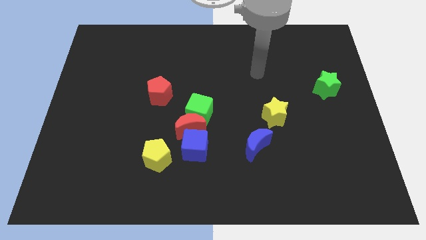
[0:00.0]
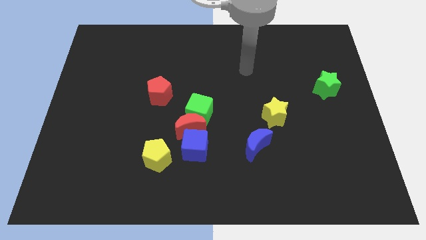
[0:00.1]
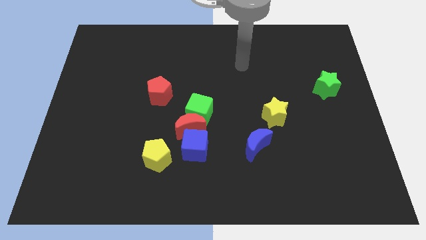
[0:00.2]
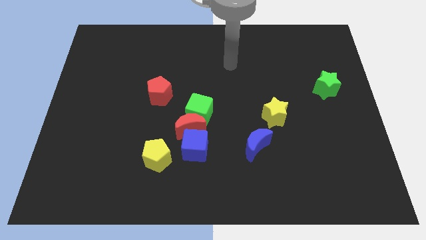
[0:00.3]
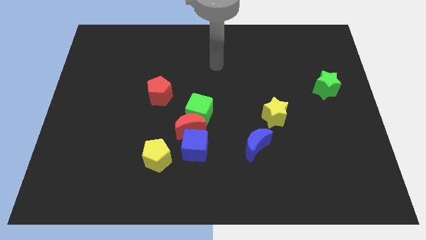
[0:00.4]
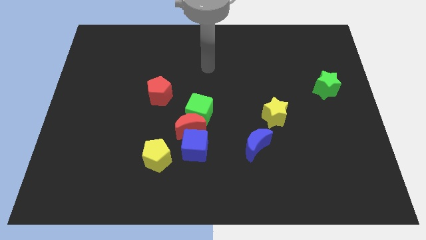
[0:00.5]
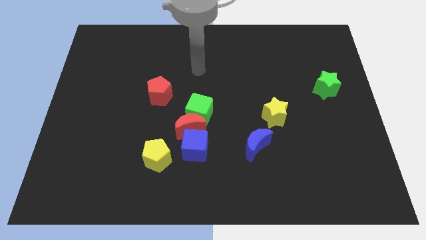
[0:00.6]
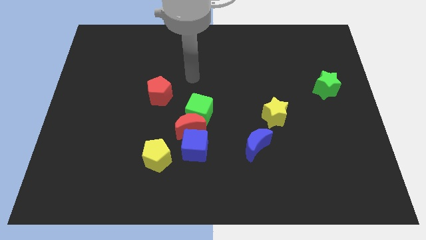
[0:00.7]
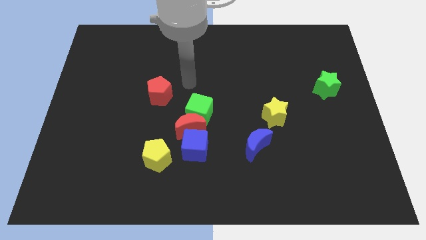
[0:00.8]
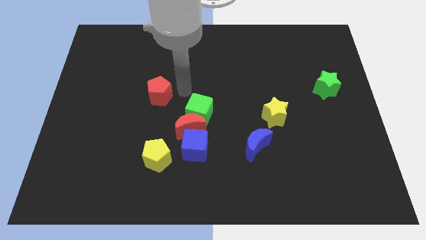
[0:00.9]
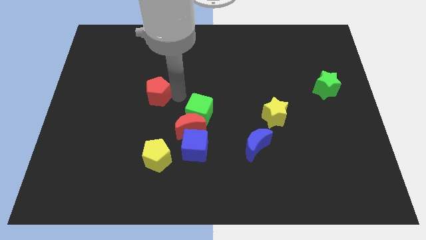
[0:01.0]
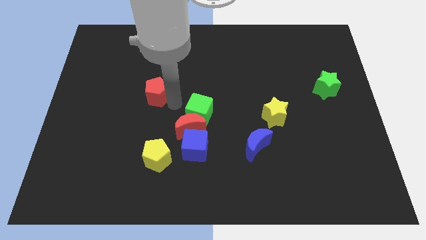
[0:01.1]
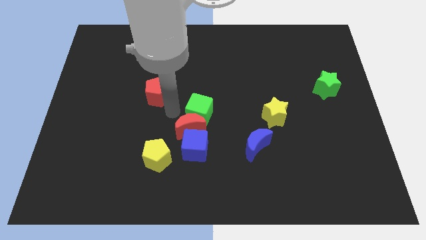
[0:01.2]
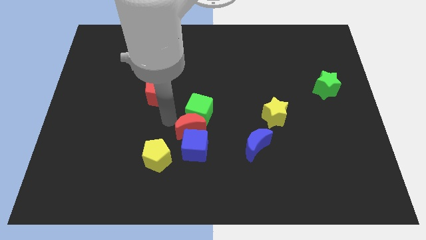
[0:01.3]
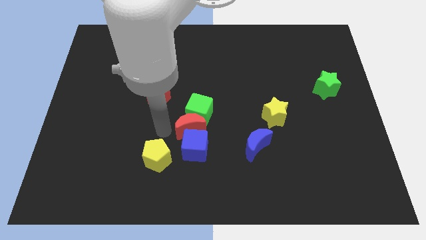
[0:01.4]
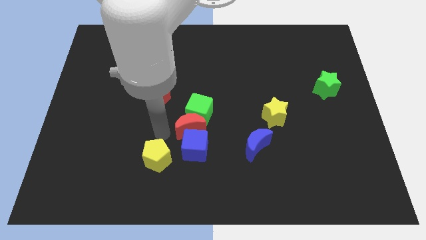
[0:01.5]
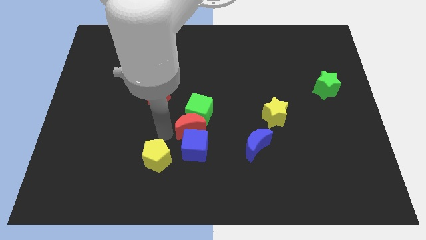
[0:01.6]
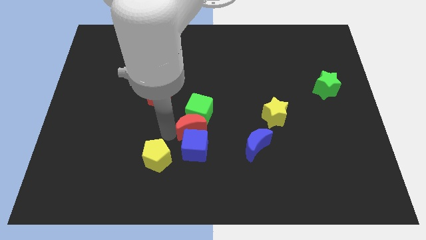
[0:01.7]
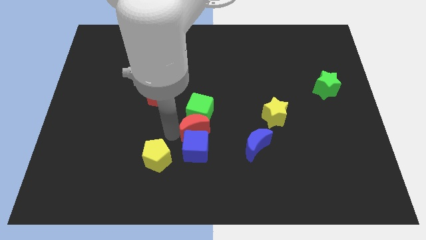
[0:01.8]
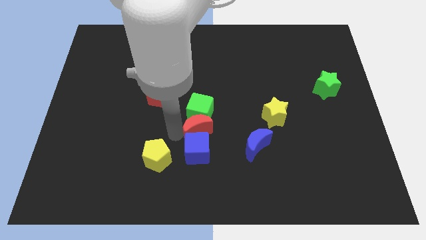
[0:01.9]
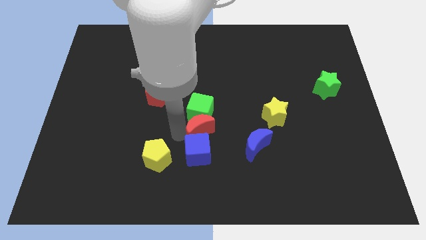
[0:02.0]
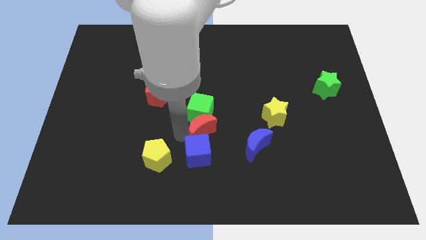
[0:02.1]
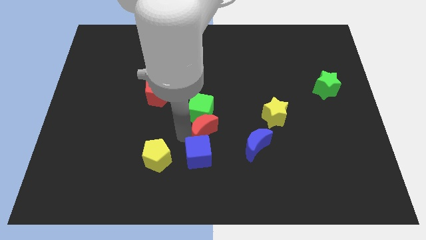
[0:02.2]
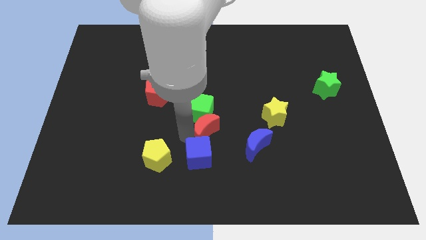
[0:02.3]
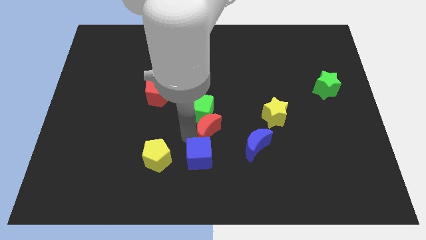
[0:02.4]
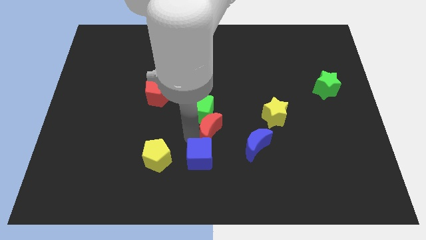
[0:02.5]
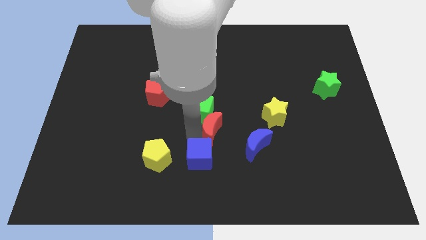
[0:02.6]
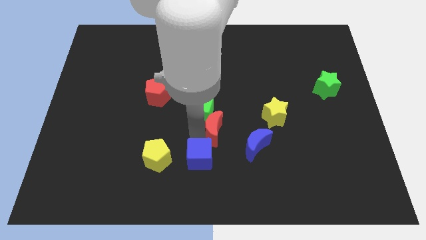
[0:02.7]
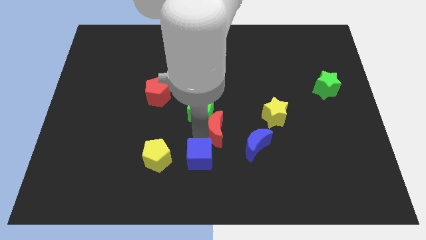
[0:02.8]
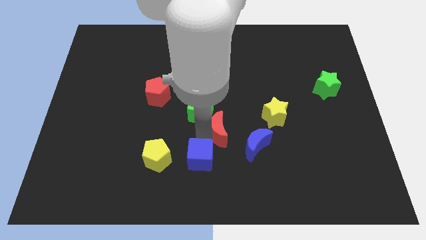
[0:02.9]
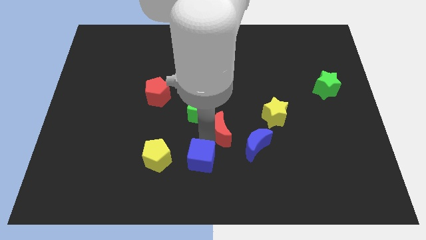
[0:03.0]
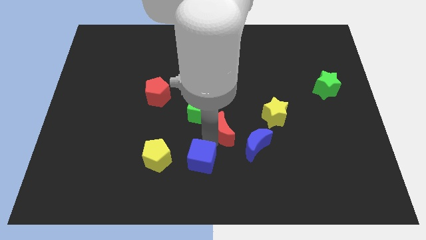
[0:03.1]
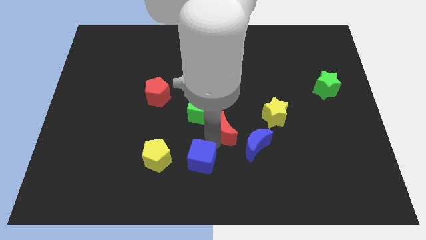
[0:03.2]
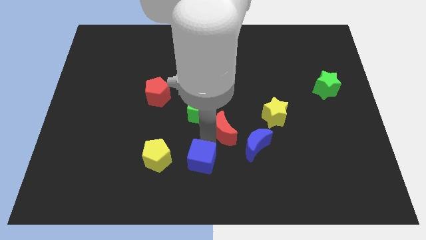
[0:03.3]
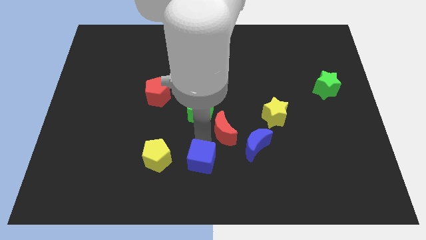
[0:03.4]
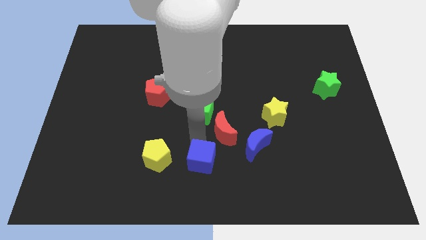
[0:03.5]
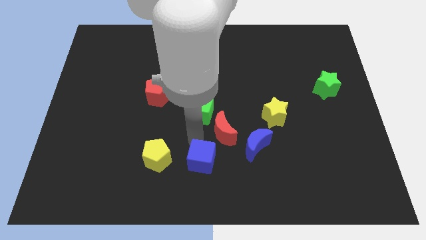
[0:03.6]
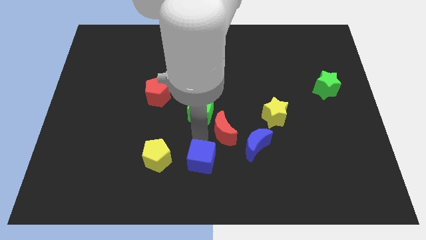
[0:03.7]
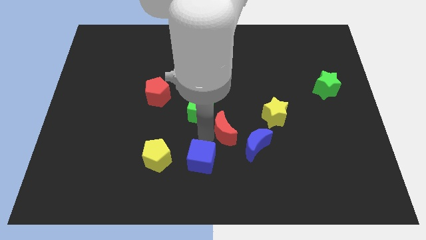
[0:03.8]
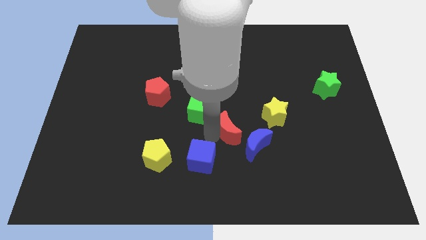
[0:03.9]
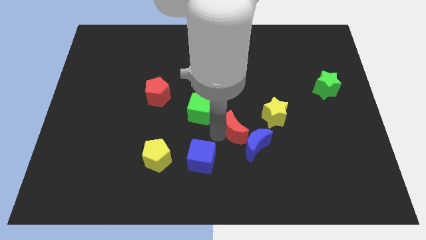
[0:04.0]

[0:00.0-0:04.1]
pull the red moon apart from the green cube, blue cube, and yellow pentagon

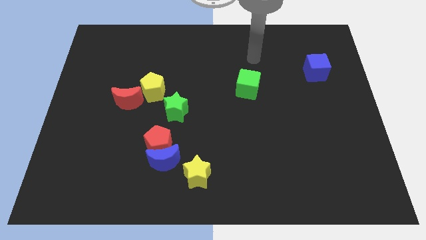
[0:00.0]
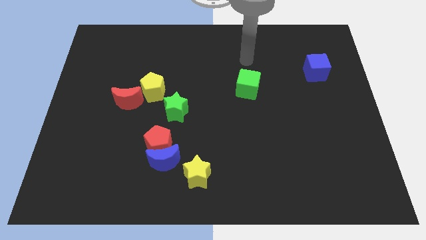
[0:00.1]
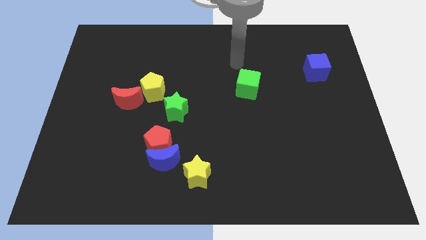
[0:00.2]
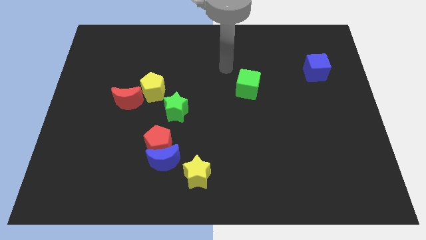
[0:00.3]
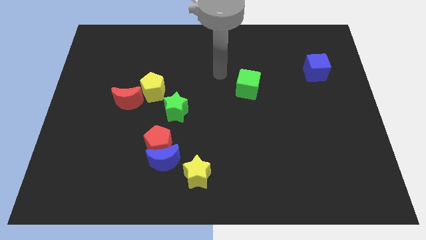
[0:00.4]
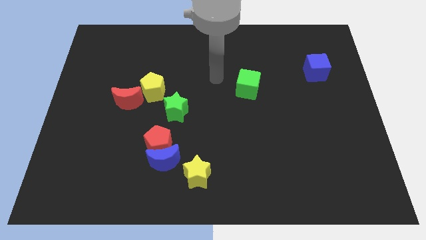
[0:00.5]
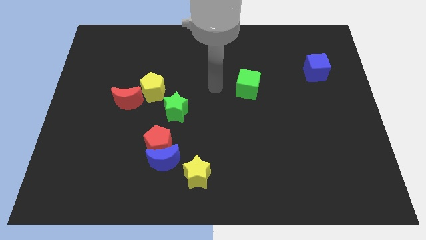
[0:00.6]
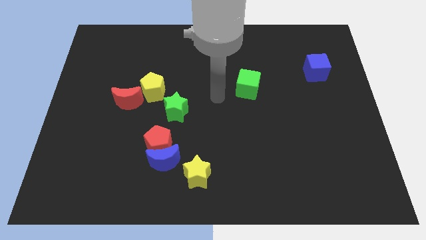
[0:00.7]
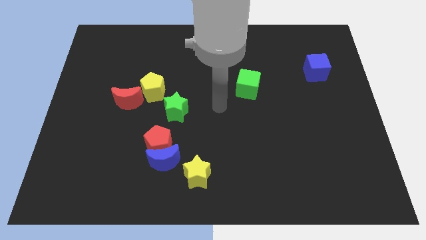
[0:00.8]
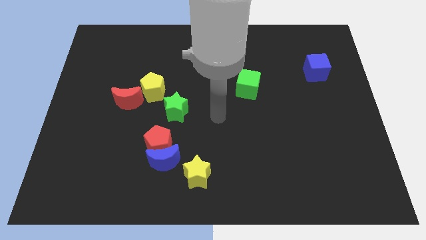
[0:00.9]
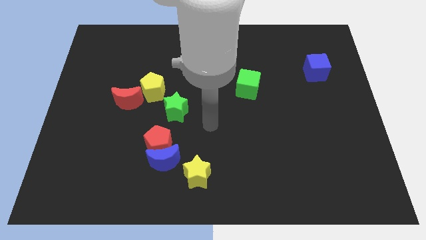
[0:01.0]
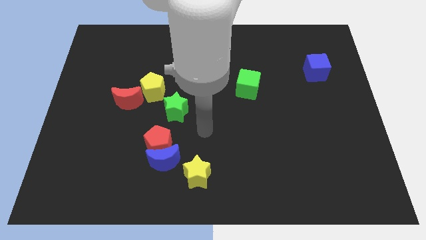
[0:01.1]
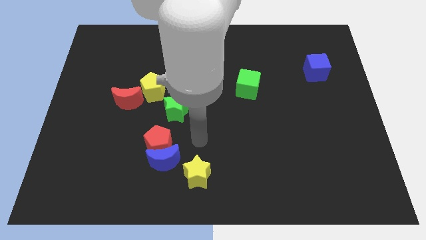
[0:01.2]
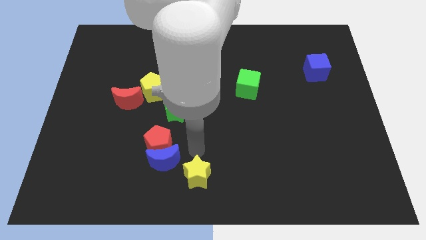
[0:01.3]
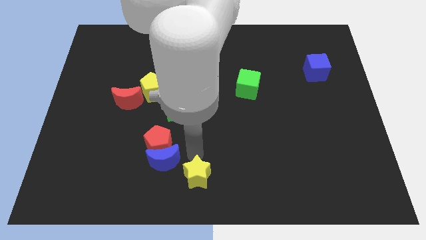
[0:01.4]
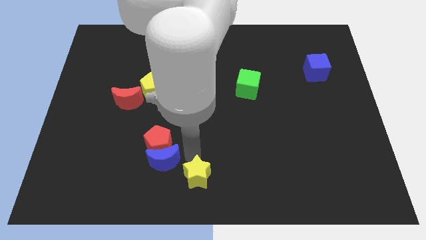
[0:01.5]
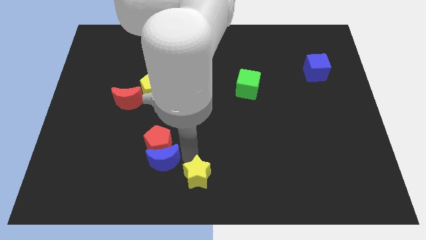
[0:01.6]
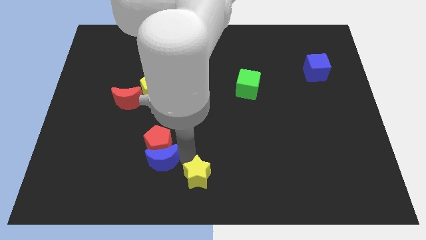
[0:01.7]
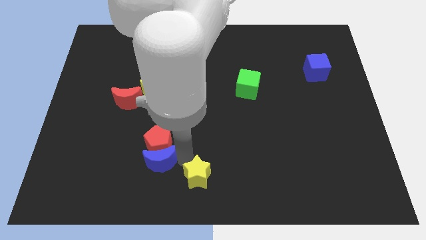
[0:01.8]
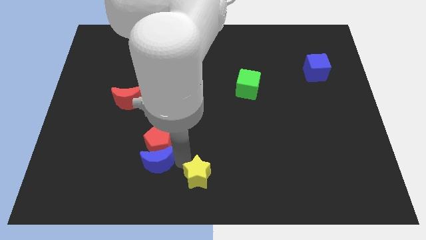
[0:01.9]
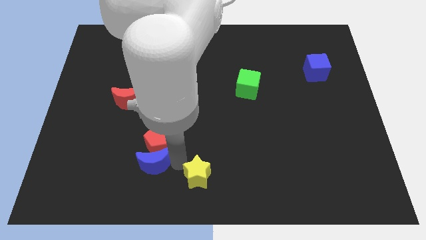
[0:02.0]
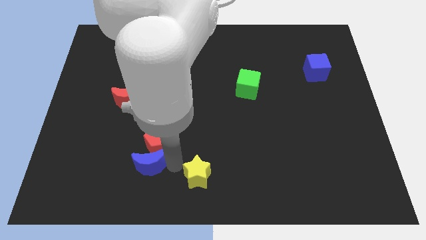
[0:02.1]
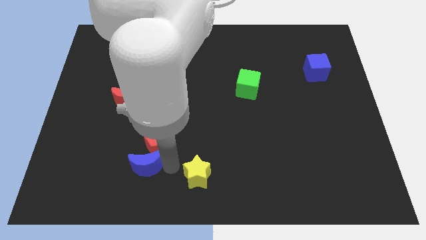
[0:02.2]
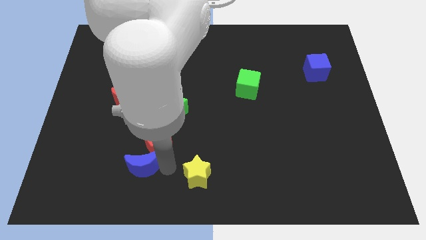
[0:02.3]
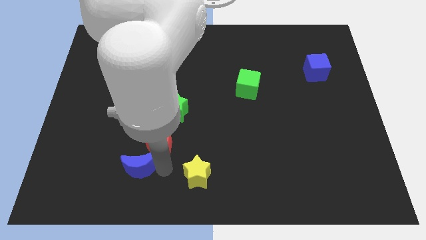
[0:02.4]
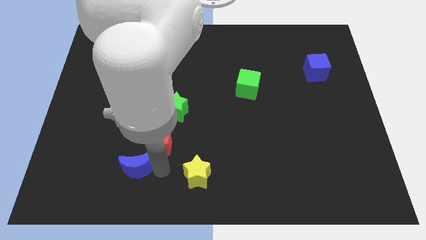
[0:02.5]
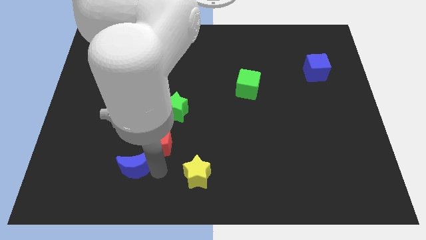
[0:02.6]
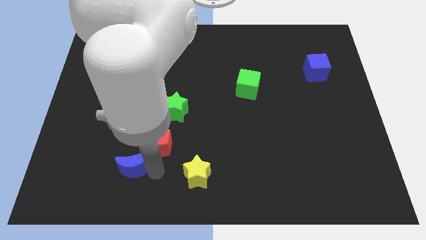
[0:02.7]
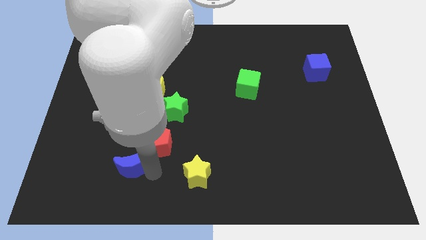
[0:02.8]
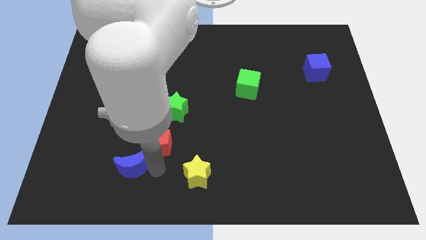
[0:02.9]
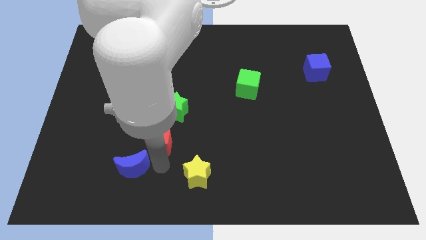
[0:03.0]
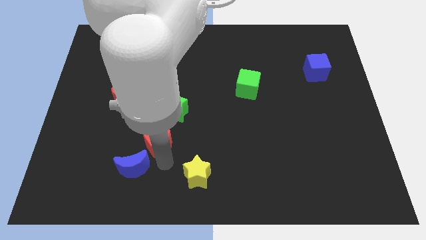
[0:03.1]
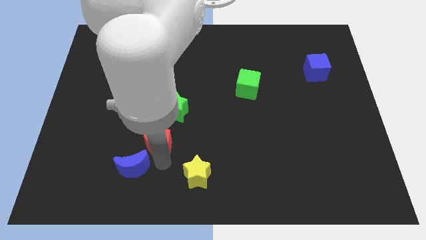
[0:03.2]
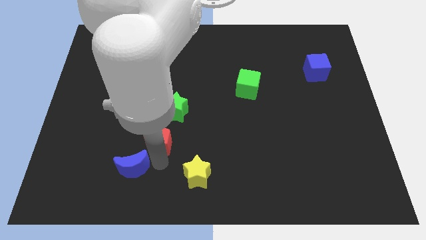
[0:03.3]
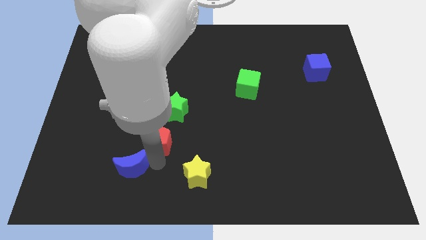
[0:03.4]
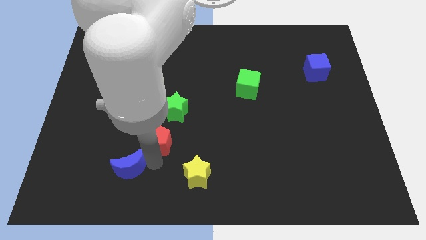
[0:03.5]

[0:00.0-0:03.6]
separate the blue moon from the red pentagon and yellow star

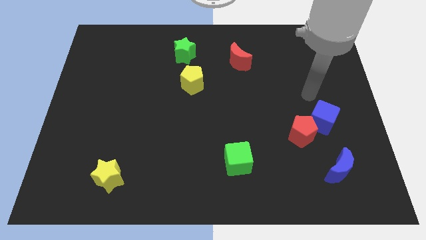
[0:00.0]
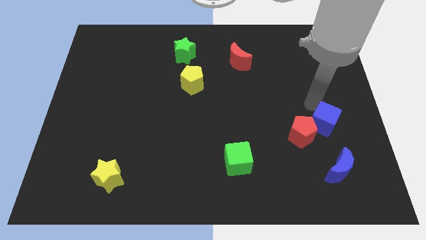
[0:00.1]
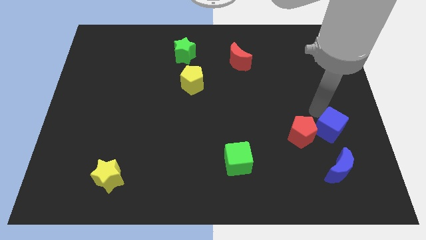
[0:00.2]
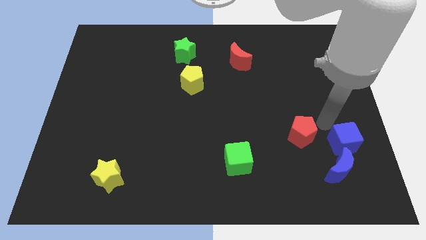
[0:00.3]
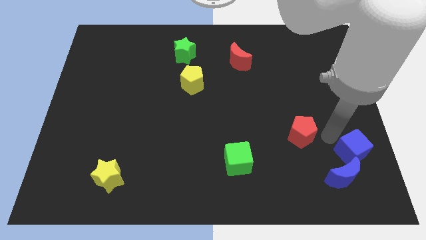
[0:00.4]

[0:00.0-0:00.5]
separate the red pentagon from the blue cube

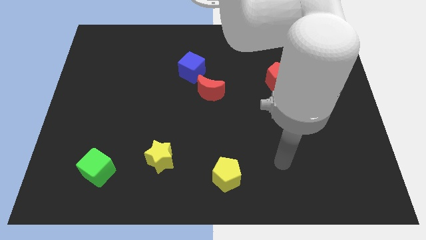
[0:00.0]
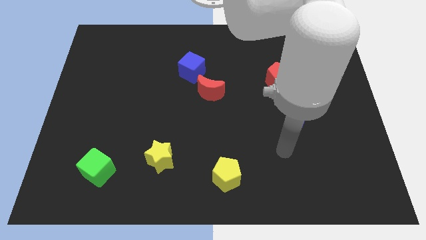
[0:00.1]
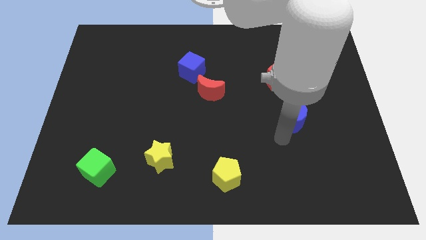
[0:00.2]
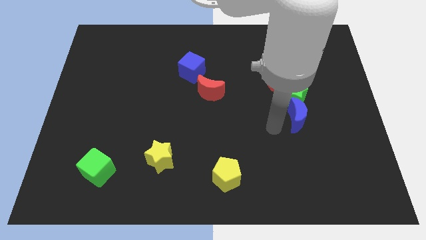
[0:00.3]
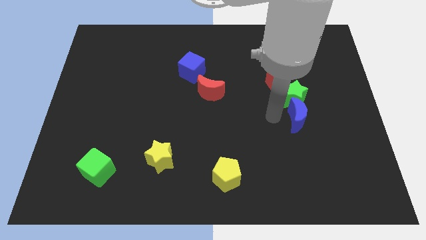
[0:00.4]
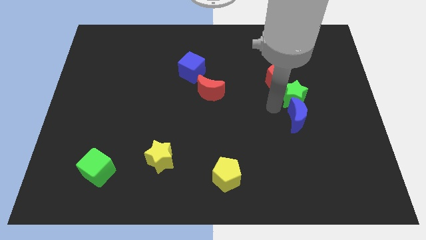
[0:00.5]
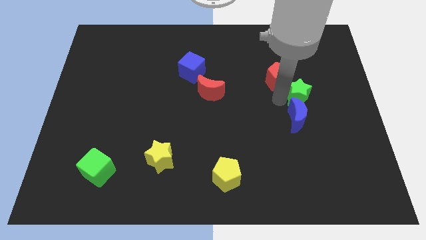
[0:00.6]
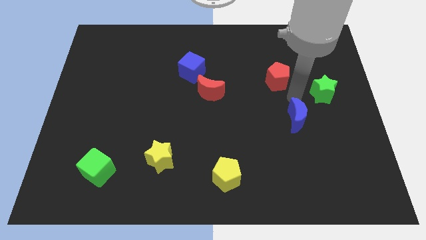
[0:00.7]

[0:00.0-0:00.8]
pull the blue moon apart from the green star

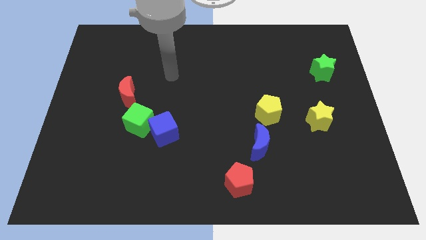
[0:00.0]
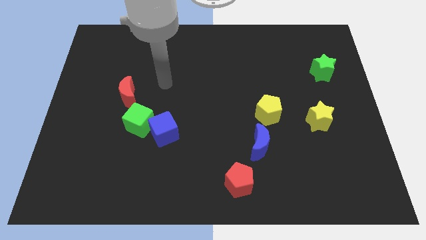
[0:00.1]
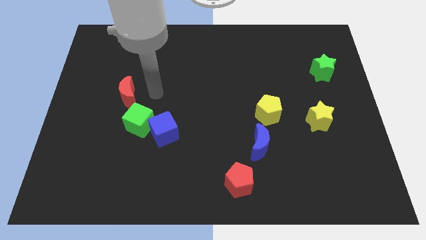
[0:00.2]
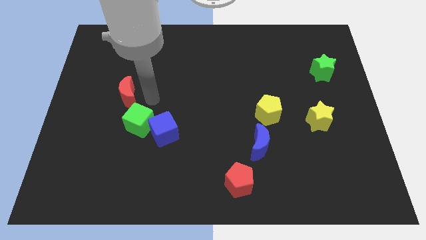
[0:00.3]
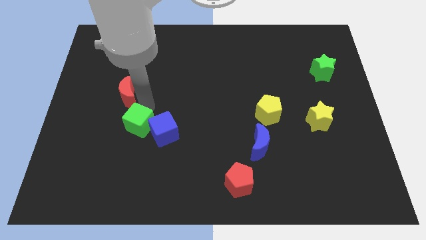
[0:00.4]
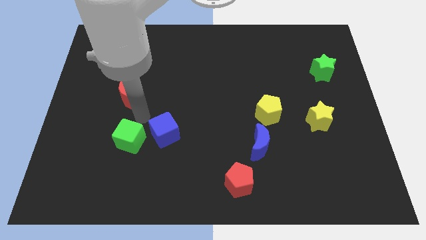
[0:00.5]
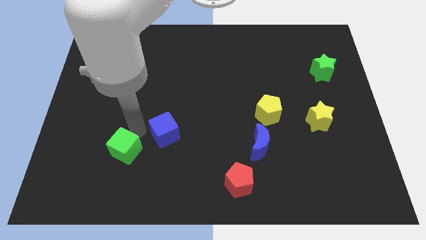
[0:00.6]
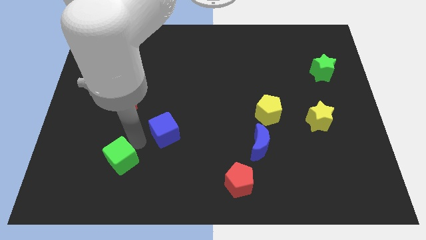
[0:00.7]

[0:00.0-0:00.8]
pull the blue cube apart from the green cube
